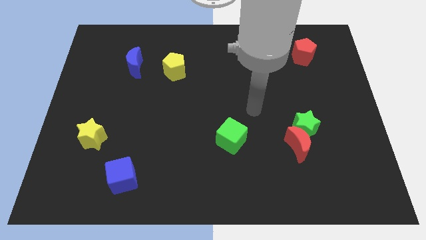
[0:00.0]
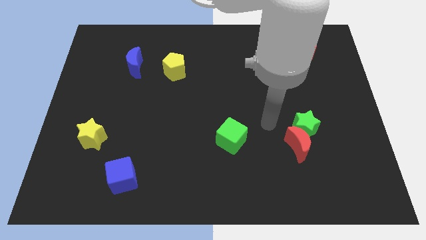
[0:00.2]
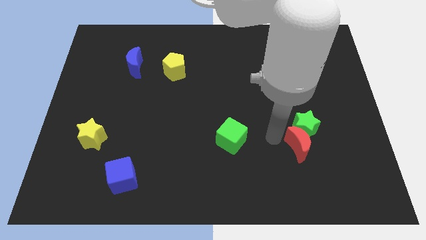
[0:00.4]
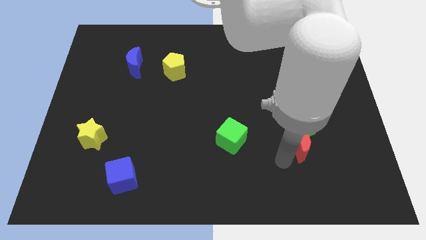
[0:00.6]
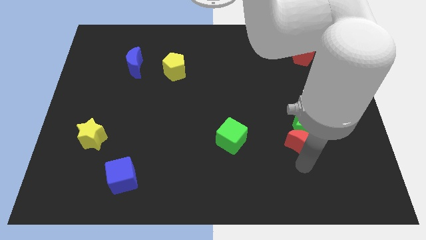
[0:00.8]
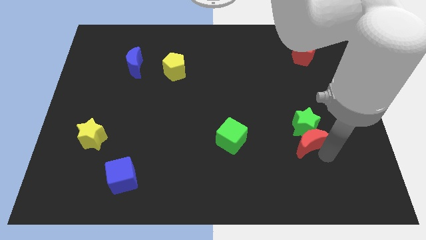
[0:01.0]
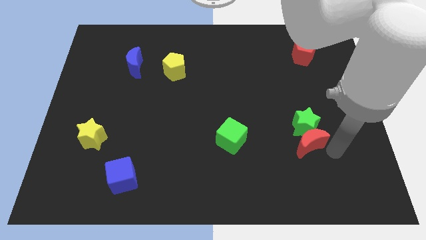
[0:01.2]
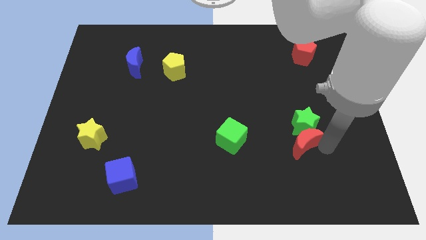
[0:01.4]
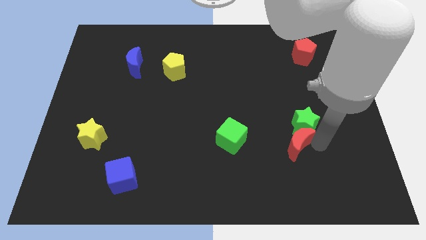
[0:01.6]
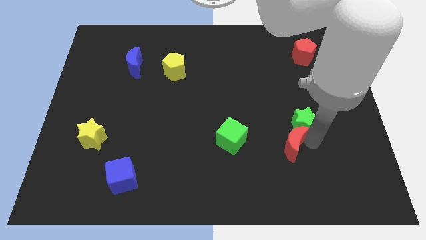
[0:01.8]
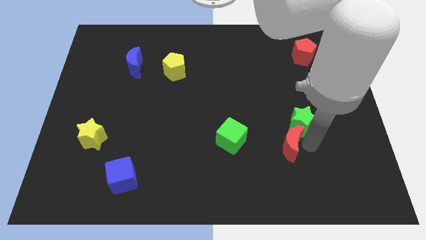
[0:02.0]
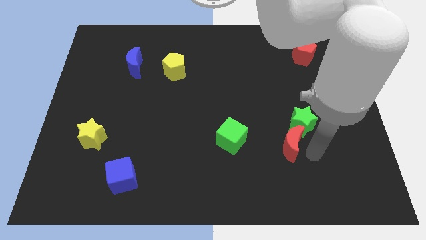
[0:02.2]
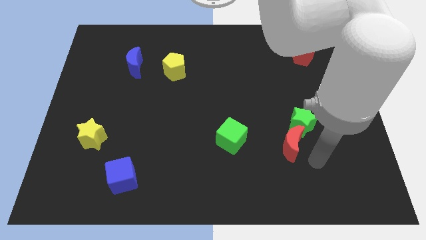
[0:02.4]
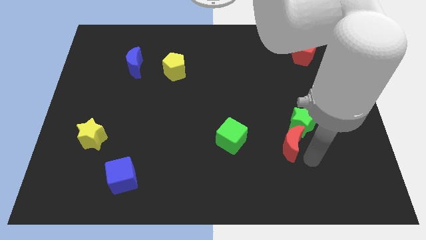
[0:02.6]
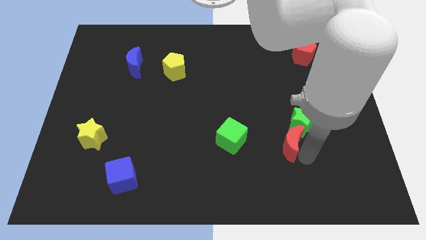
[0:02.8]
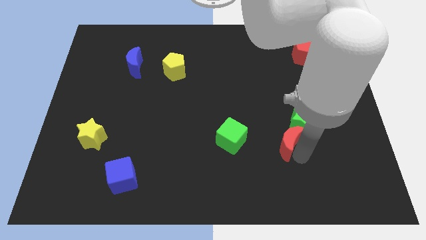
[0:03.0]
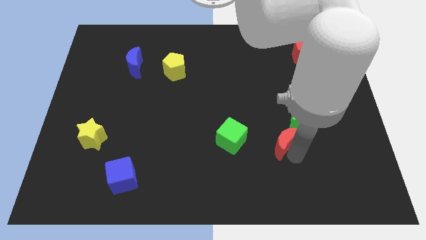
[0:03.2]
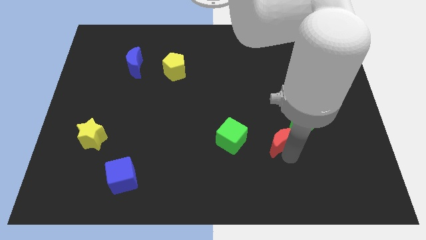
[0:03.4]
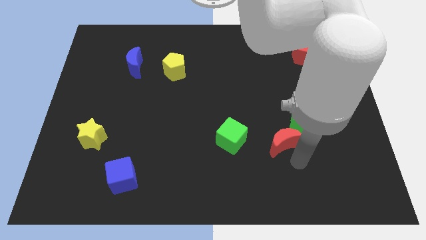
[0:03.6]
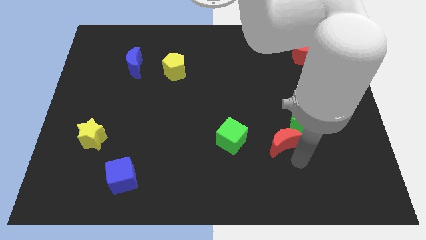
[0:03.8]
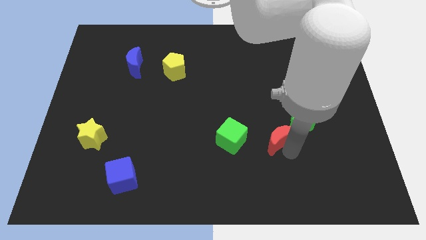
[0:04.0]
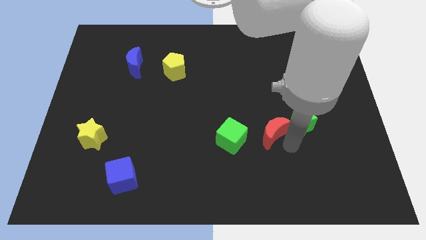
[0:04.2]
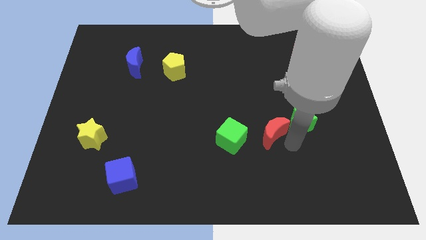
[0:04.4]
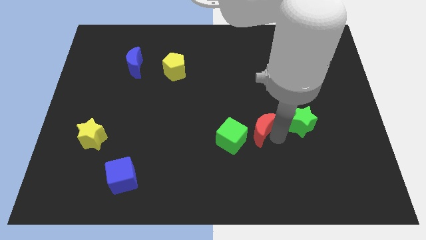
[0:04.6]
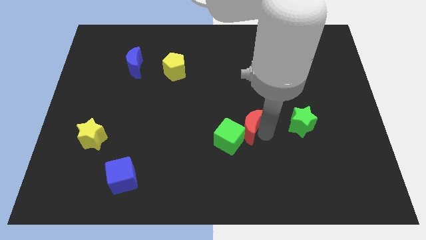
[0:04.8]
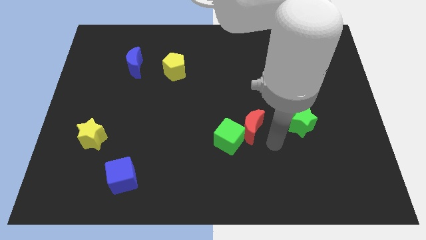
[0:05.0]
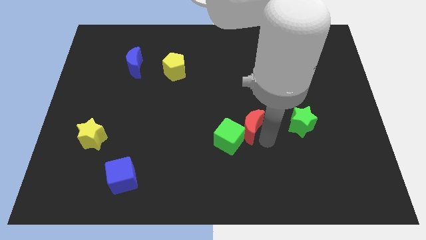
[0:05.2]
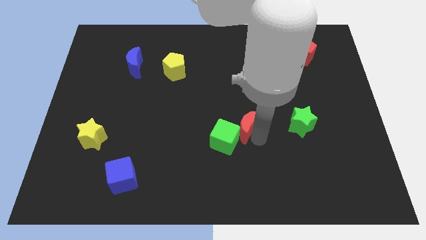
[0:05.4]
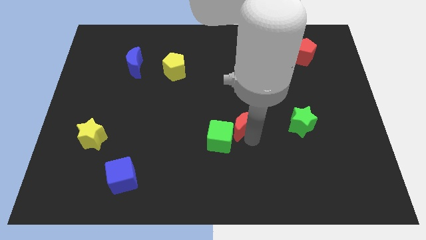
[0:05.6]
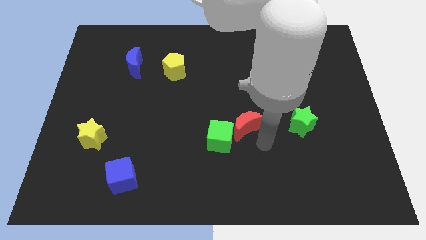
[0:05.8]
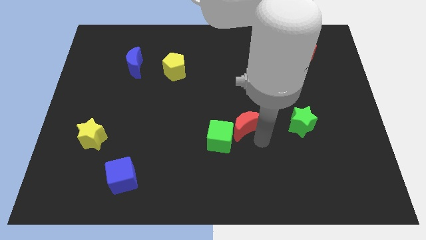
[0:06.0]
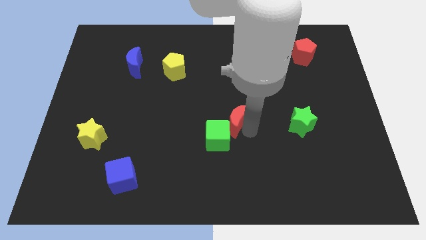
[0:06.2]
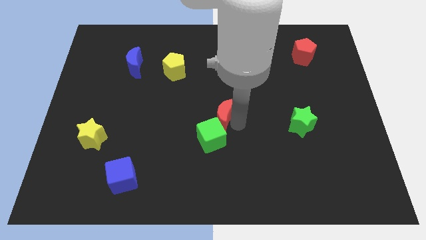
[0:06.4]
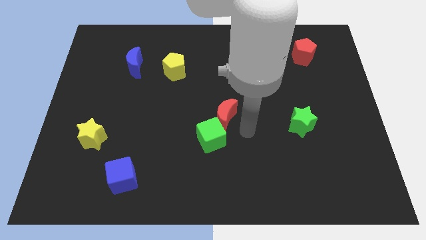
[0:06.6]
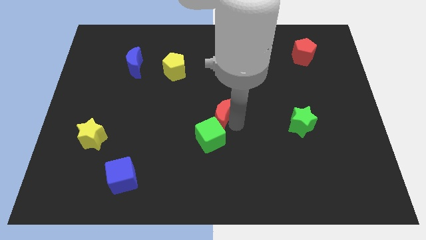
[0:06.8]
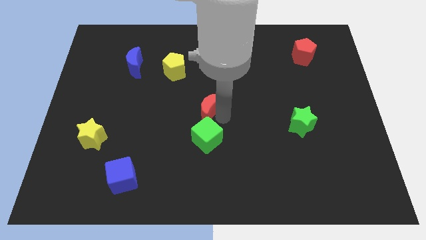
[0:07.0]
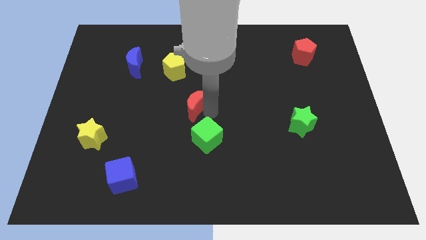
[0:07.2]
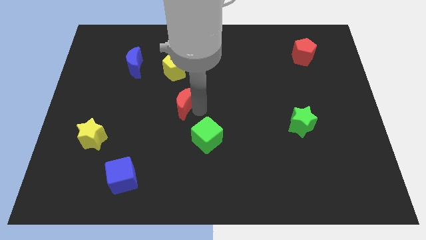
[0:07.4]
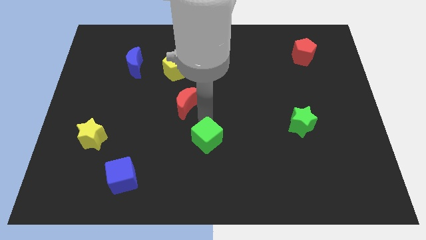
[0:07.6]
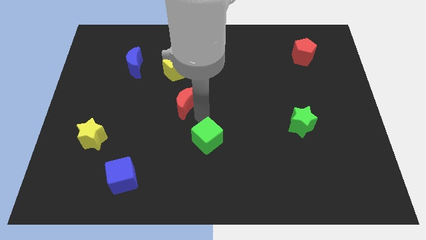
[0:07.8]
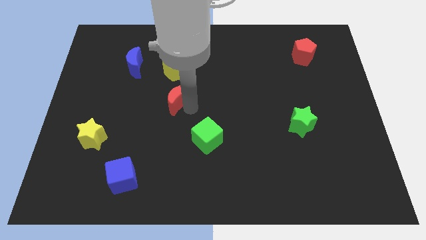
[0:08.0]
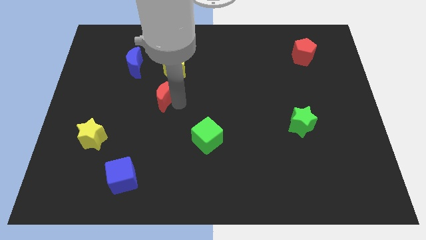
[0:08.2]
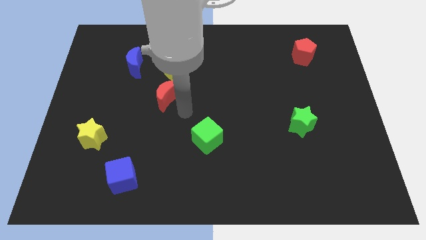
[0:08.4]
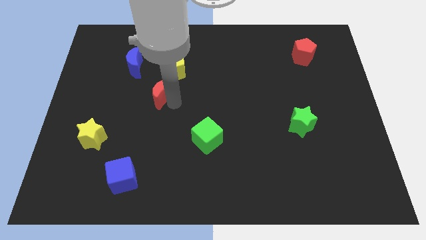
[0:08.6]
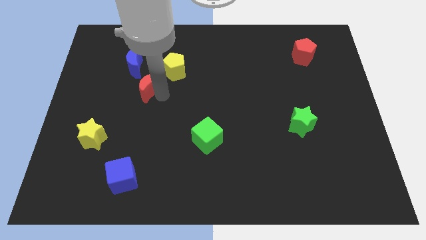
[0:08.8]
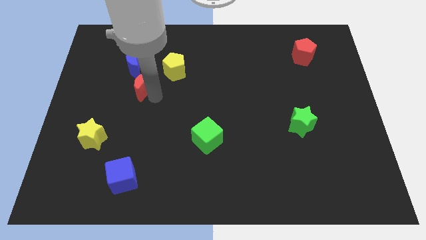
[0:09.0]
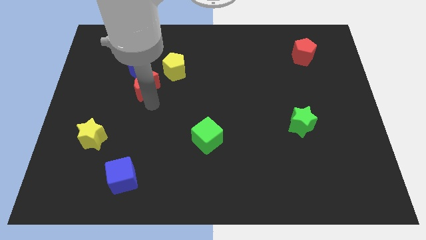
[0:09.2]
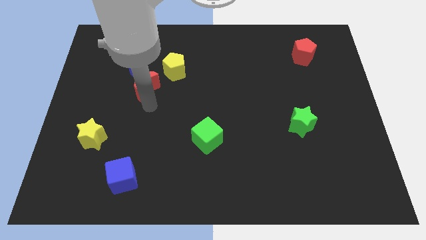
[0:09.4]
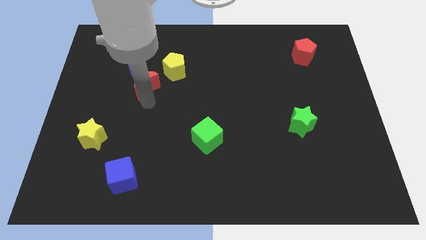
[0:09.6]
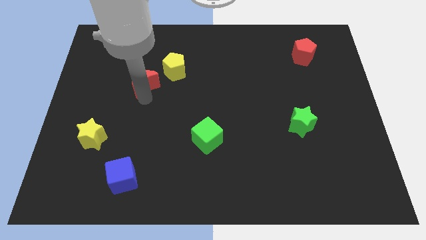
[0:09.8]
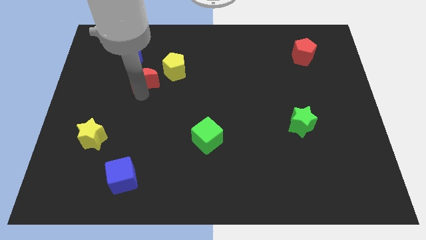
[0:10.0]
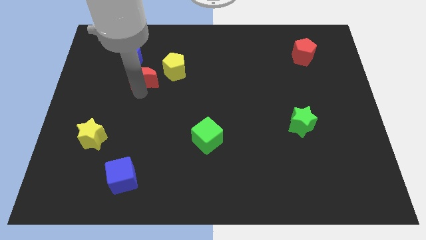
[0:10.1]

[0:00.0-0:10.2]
push the red moon towards the blue moon

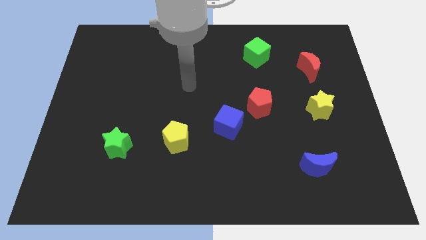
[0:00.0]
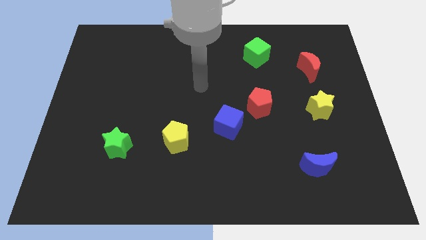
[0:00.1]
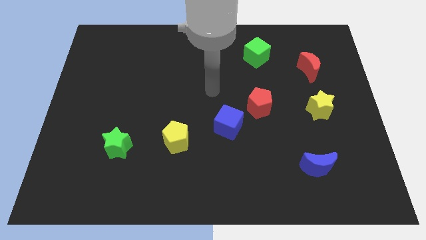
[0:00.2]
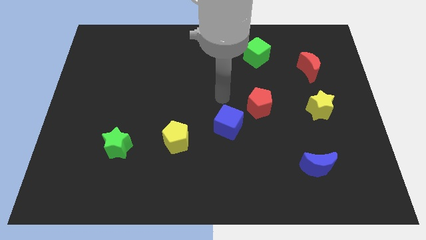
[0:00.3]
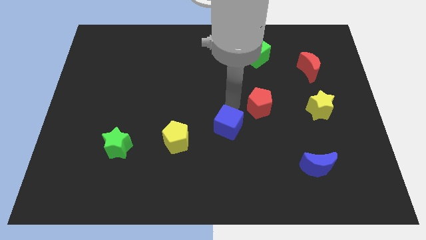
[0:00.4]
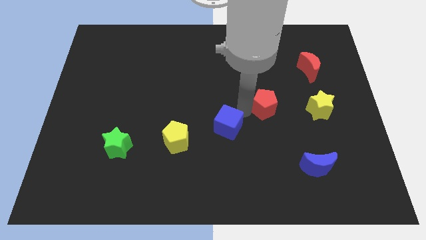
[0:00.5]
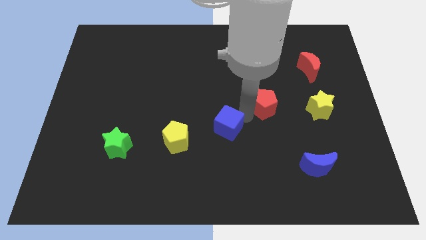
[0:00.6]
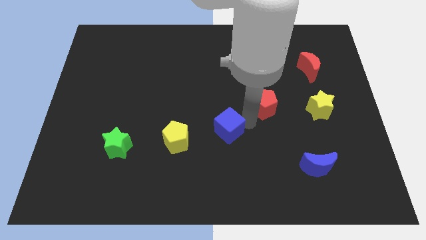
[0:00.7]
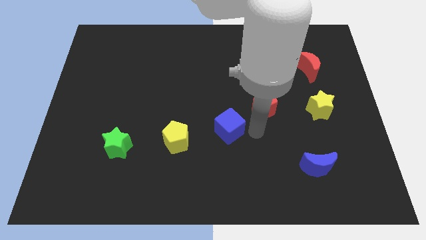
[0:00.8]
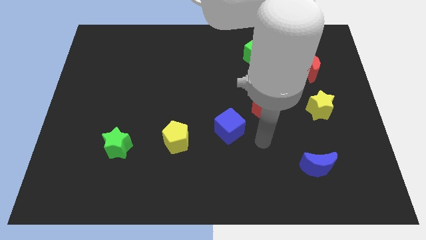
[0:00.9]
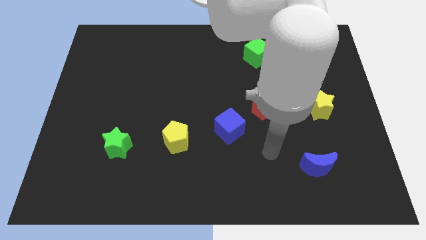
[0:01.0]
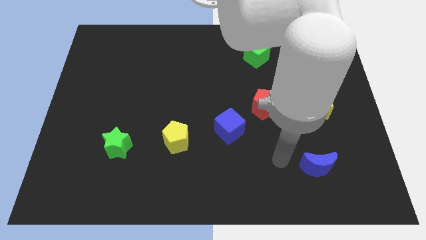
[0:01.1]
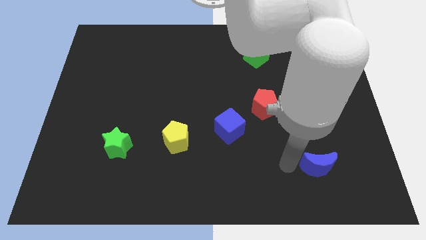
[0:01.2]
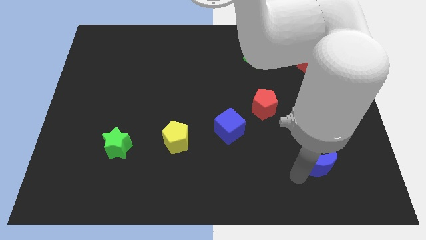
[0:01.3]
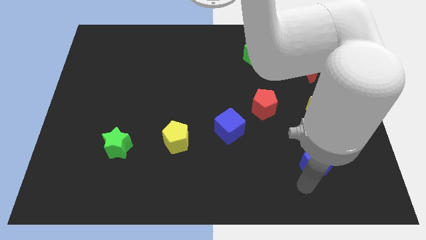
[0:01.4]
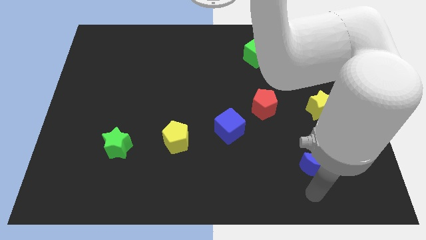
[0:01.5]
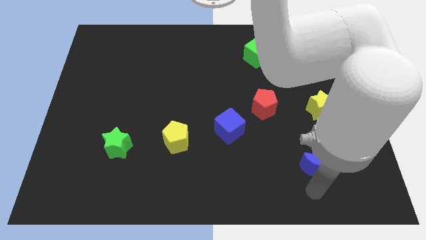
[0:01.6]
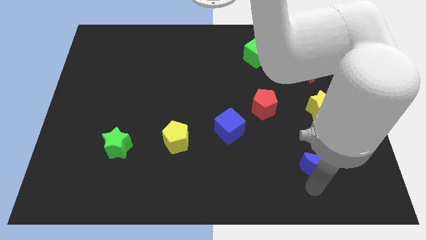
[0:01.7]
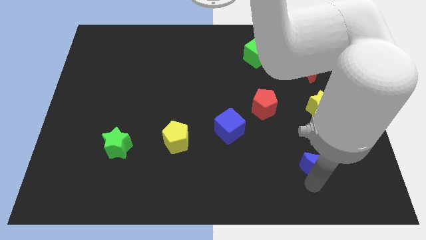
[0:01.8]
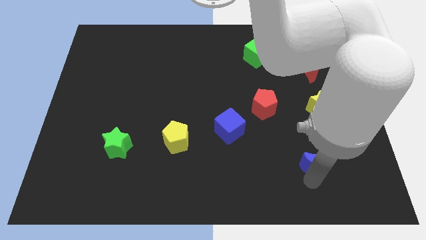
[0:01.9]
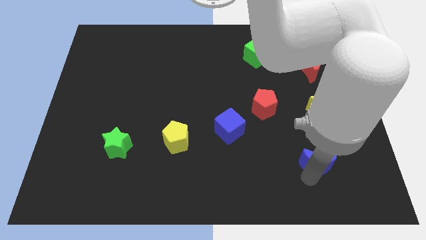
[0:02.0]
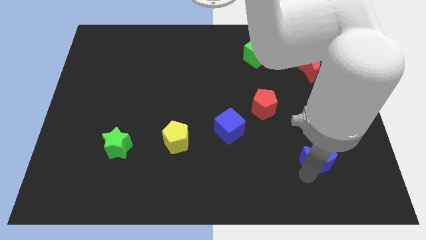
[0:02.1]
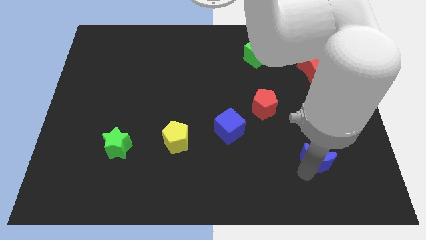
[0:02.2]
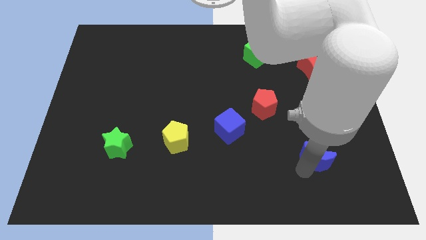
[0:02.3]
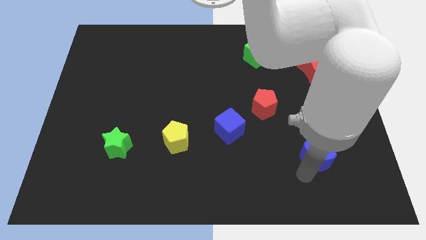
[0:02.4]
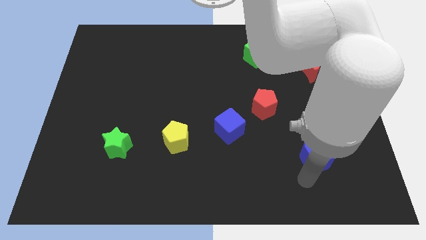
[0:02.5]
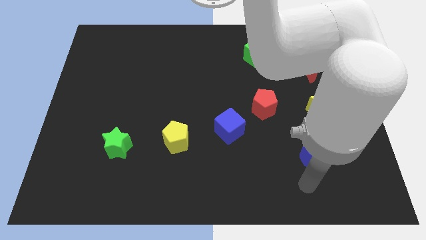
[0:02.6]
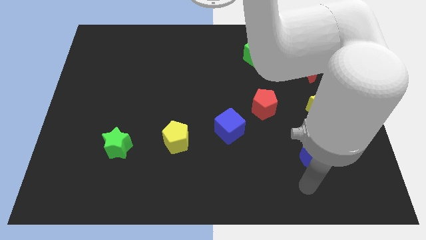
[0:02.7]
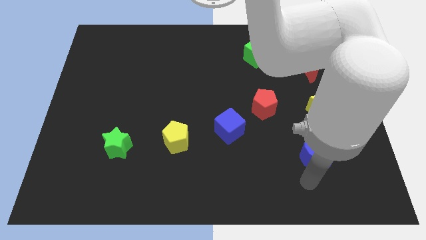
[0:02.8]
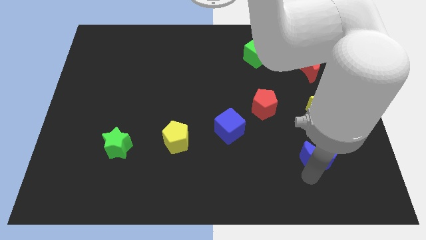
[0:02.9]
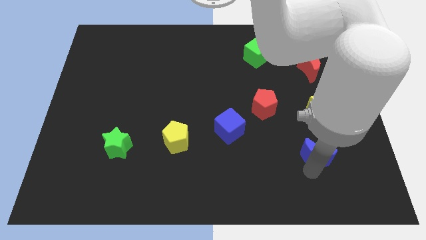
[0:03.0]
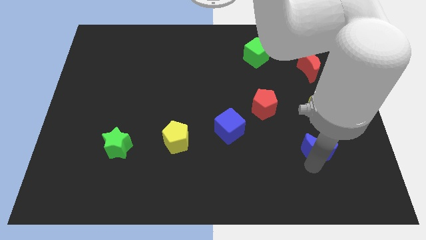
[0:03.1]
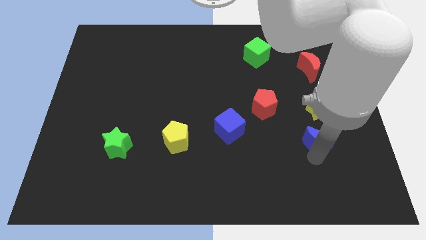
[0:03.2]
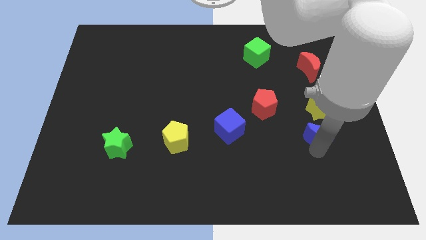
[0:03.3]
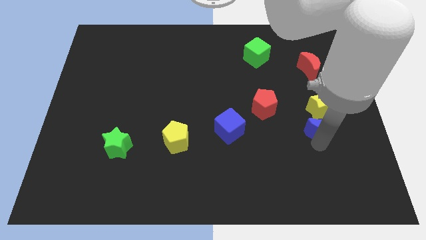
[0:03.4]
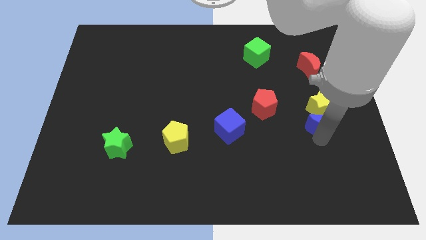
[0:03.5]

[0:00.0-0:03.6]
move the blue moon close to the yellow star
